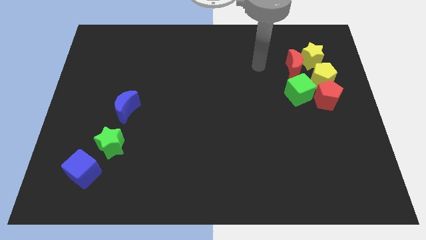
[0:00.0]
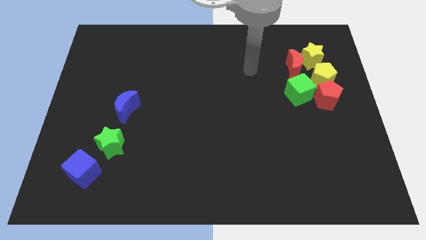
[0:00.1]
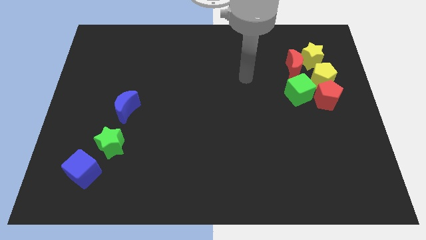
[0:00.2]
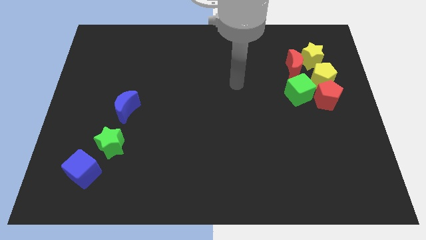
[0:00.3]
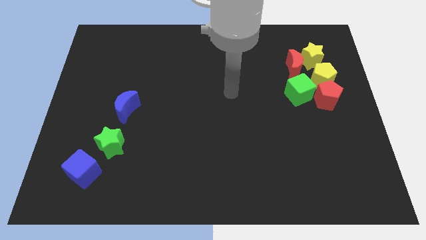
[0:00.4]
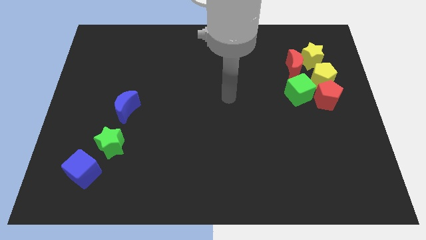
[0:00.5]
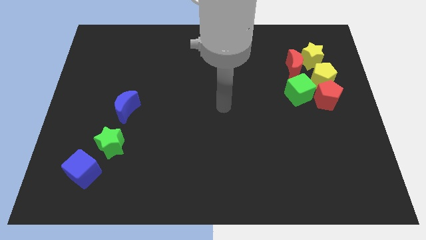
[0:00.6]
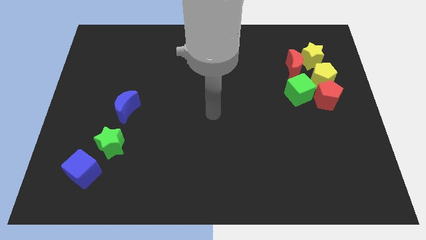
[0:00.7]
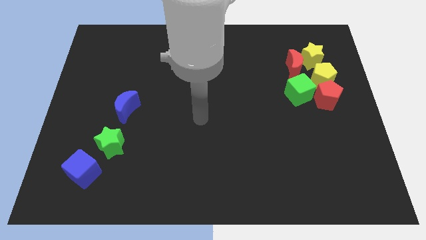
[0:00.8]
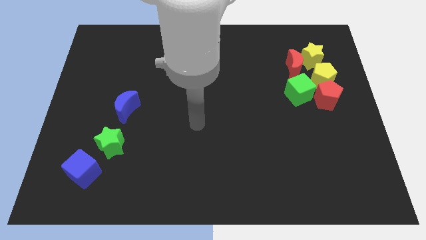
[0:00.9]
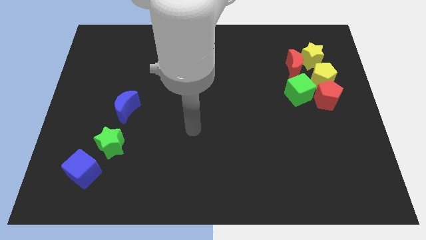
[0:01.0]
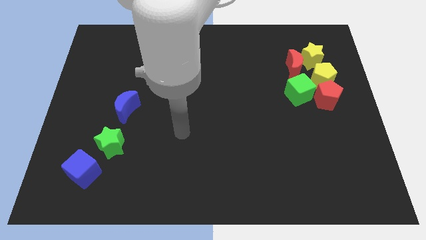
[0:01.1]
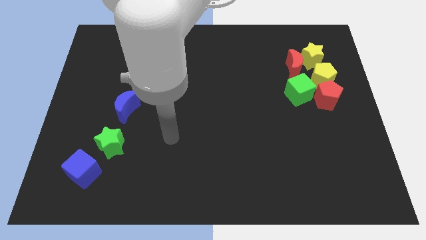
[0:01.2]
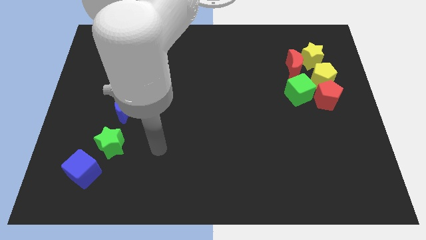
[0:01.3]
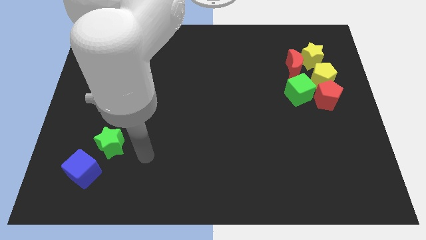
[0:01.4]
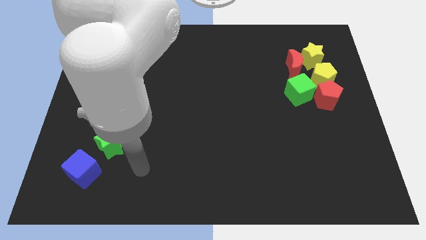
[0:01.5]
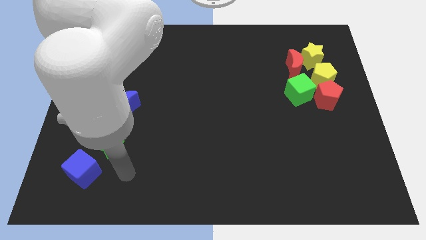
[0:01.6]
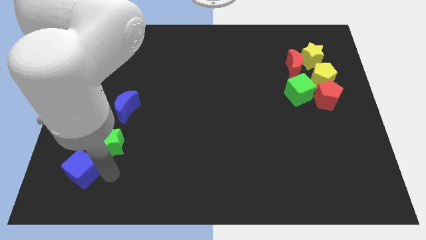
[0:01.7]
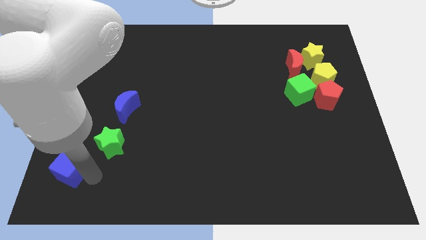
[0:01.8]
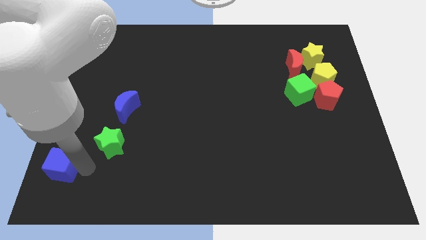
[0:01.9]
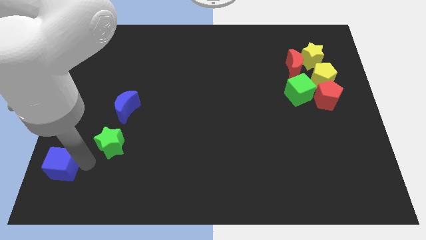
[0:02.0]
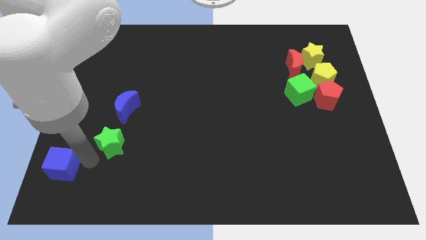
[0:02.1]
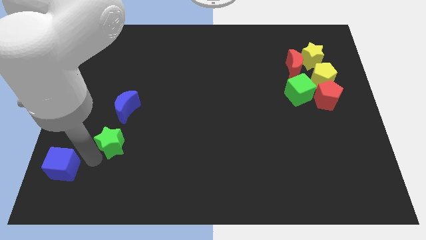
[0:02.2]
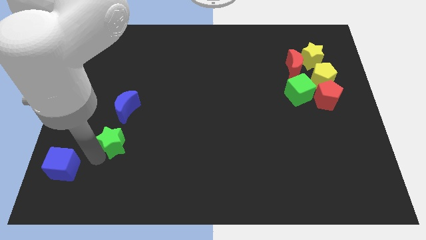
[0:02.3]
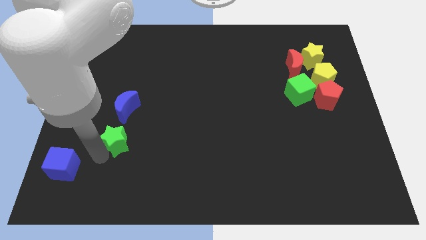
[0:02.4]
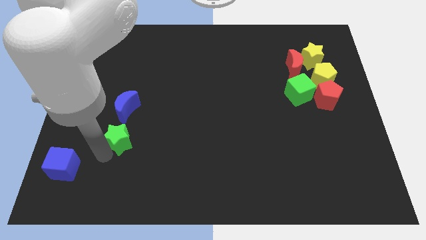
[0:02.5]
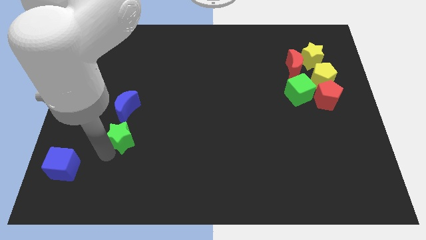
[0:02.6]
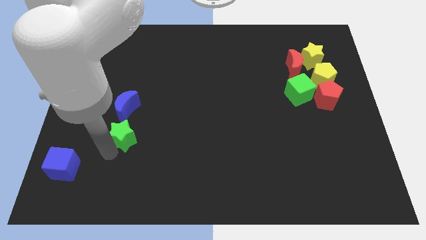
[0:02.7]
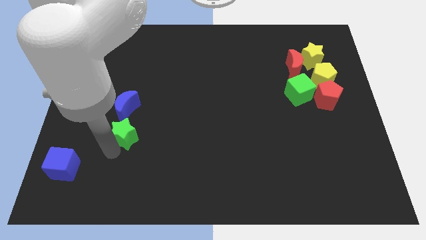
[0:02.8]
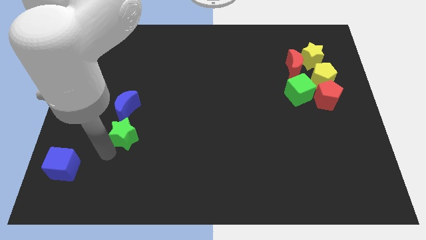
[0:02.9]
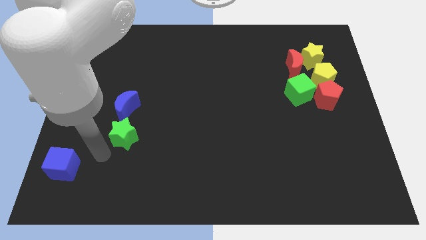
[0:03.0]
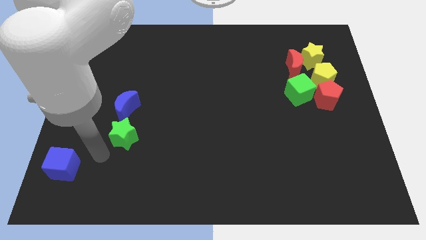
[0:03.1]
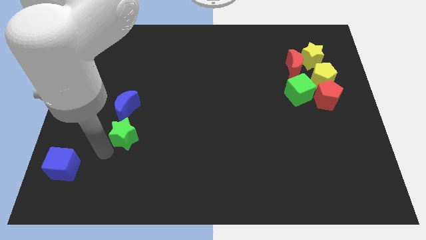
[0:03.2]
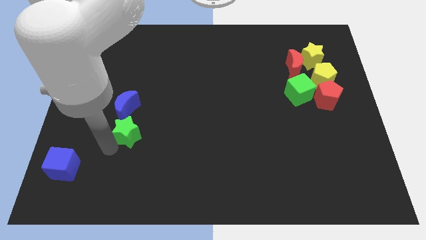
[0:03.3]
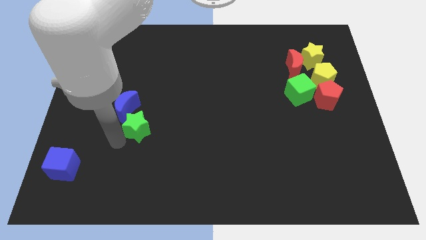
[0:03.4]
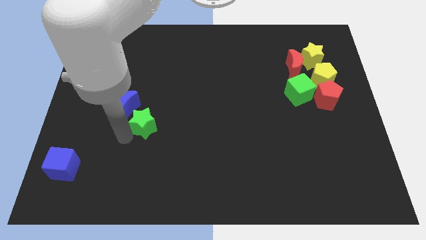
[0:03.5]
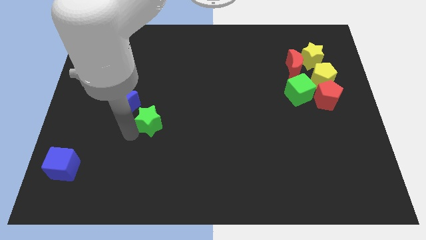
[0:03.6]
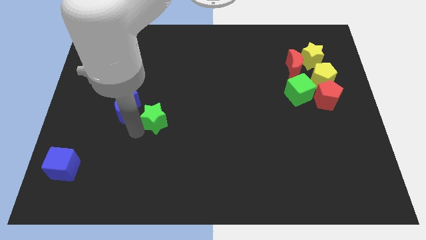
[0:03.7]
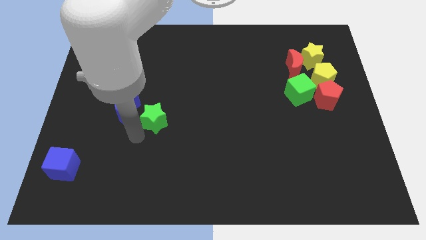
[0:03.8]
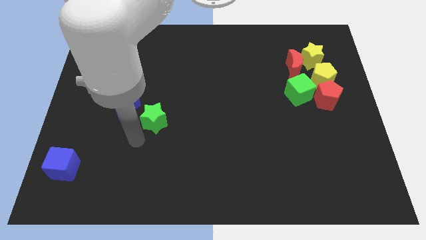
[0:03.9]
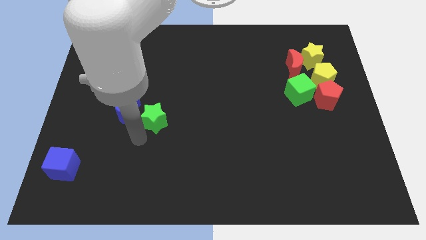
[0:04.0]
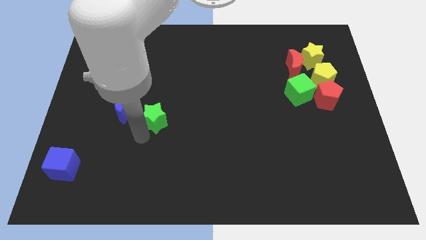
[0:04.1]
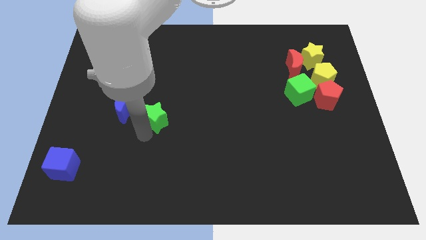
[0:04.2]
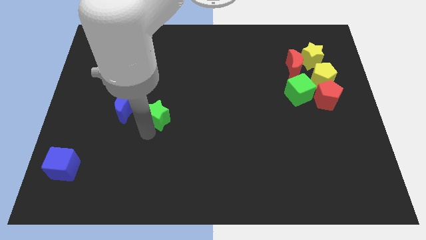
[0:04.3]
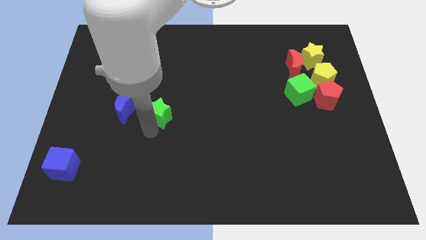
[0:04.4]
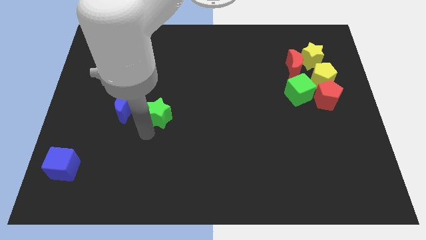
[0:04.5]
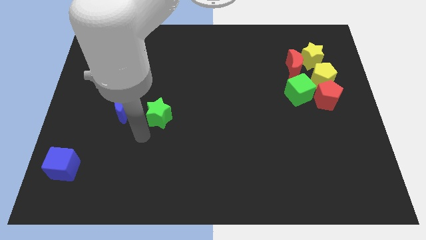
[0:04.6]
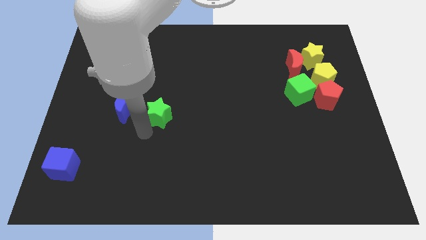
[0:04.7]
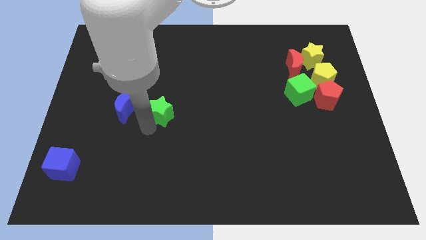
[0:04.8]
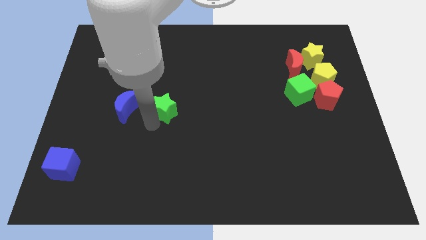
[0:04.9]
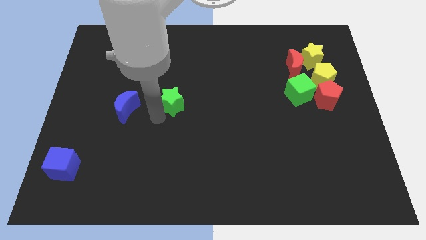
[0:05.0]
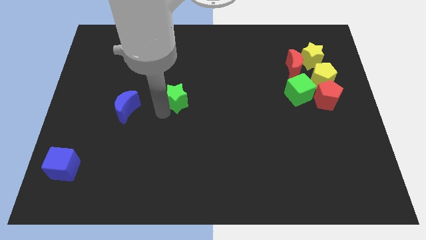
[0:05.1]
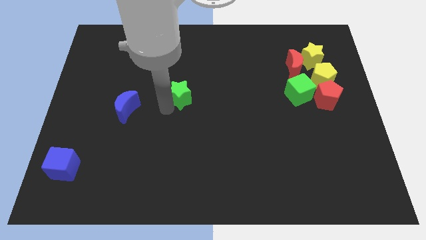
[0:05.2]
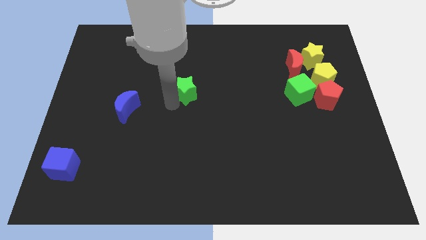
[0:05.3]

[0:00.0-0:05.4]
slide the green star upwards and to the right diagonally

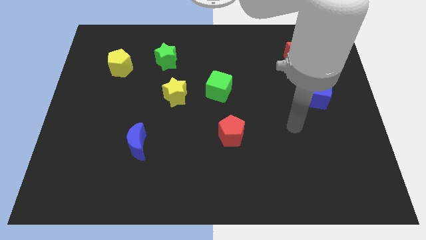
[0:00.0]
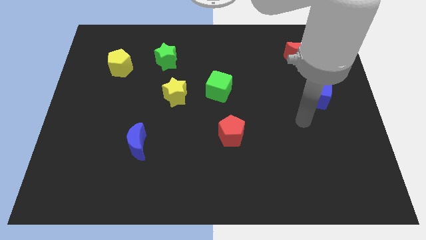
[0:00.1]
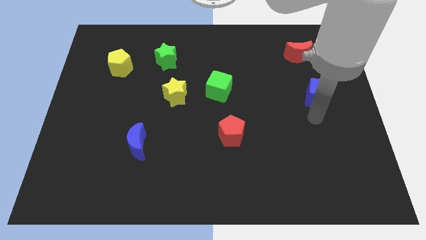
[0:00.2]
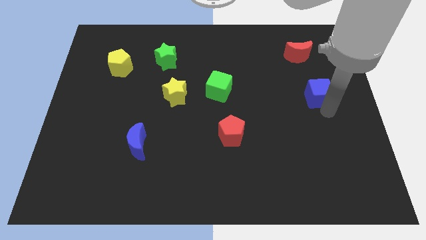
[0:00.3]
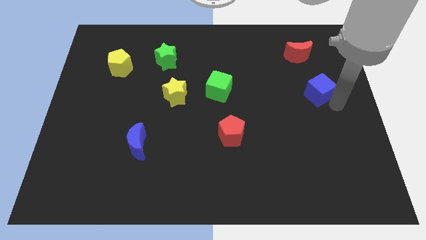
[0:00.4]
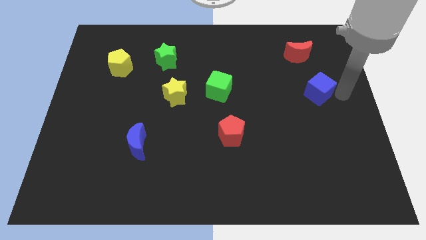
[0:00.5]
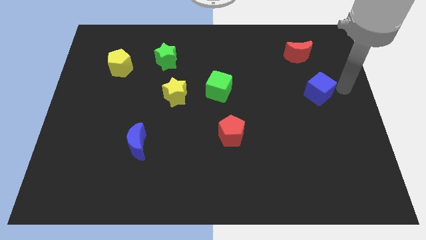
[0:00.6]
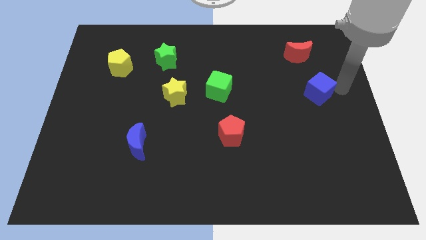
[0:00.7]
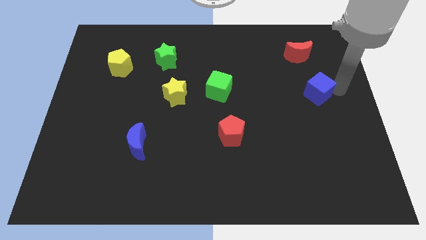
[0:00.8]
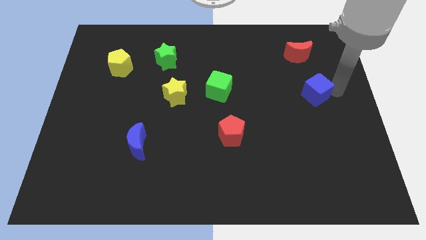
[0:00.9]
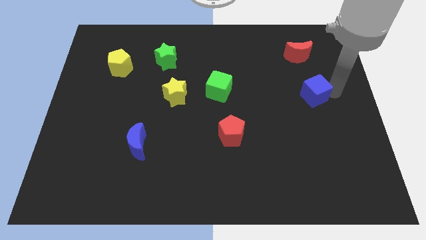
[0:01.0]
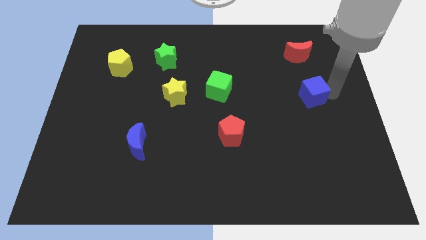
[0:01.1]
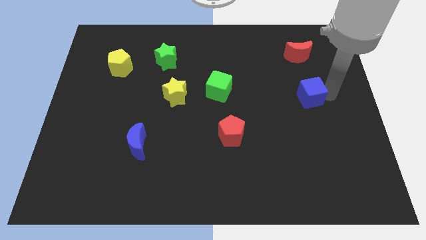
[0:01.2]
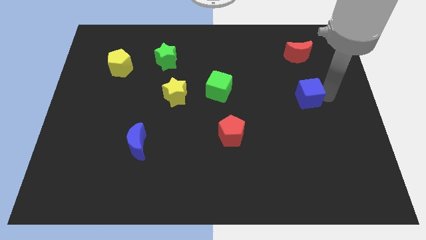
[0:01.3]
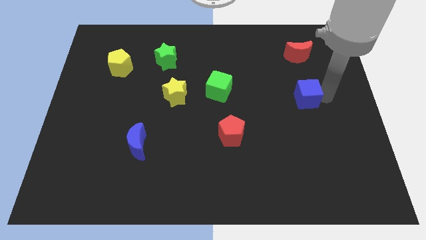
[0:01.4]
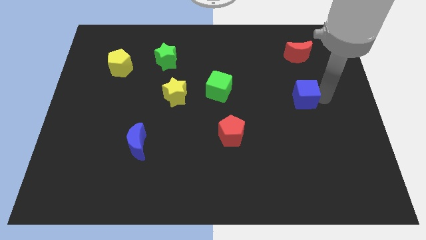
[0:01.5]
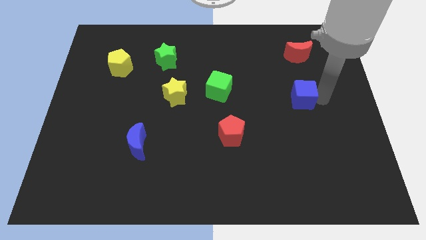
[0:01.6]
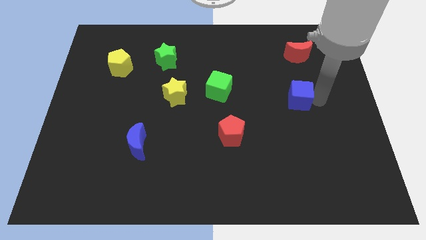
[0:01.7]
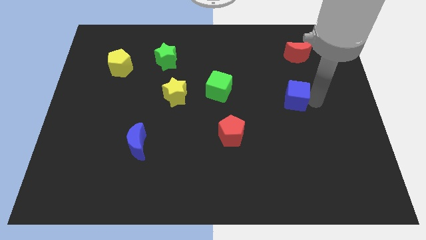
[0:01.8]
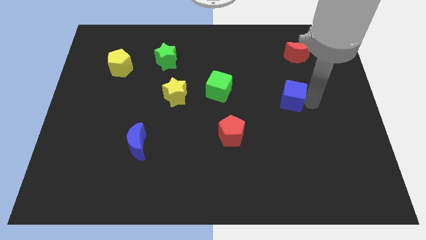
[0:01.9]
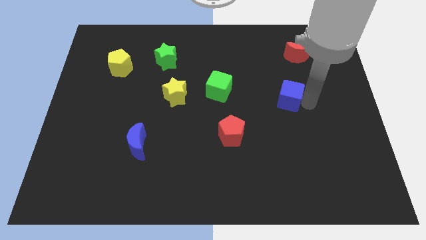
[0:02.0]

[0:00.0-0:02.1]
slide the blue cube to the left a little bit

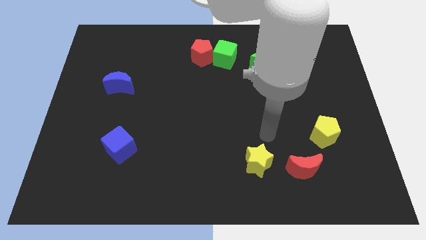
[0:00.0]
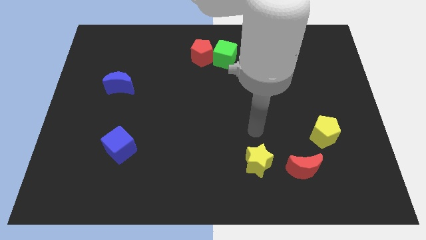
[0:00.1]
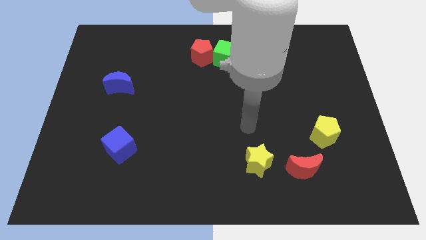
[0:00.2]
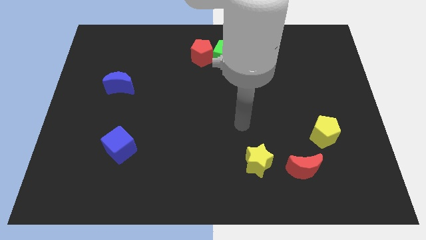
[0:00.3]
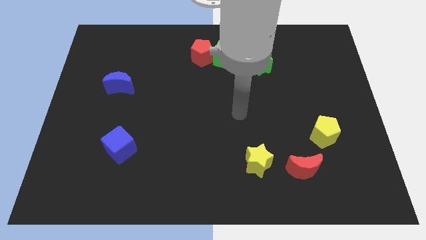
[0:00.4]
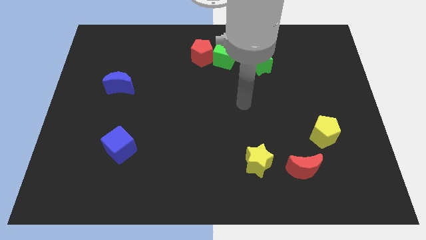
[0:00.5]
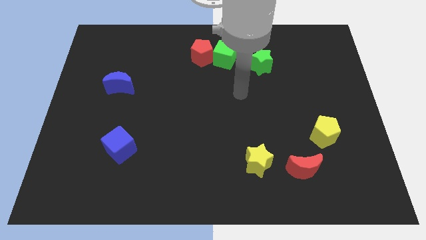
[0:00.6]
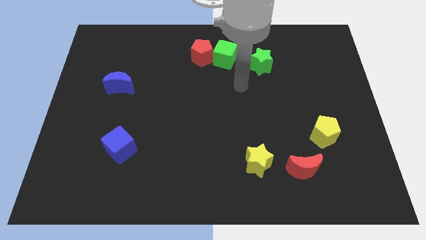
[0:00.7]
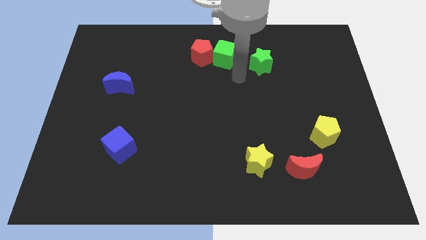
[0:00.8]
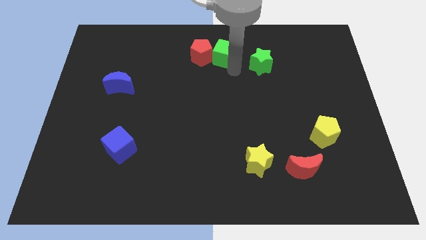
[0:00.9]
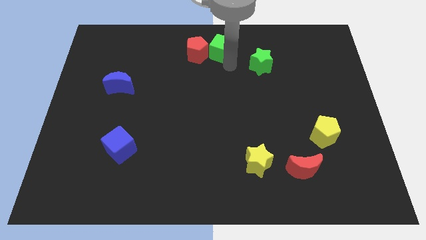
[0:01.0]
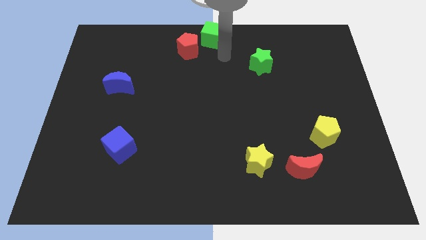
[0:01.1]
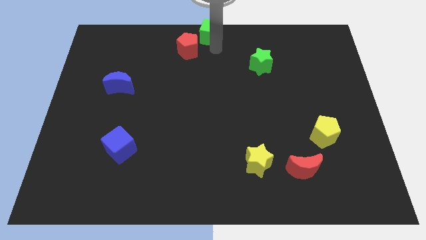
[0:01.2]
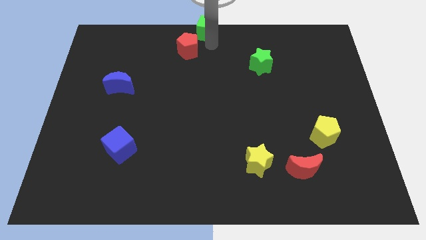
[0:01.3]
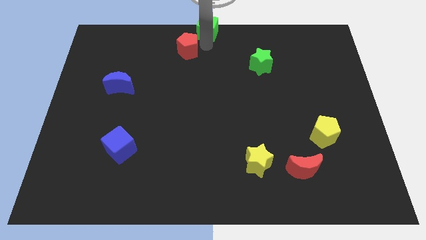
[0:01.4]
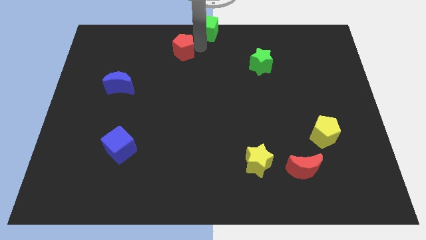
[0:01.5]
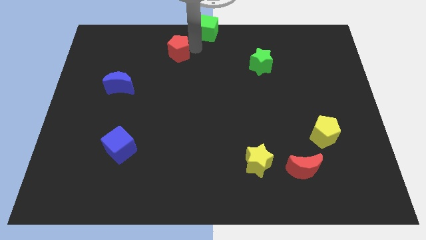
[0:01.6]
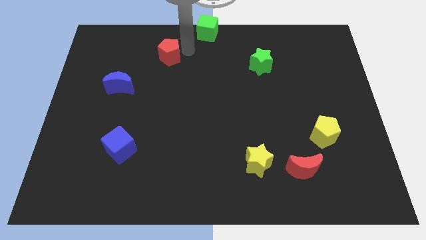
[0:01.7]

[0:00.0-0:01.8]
push the red pentagon a little bit left
